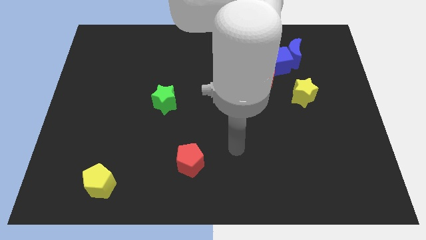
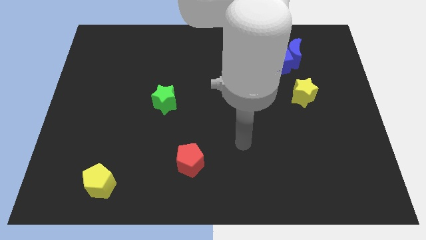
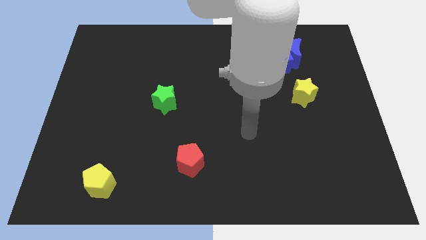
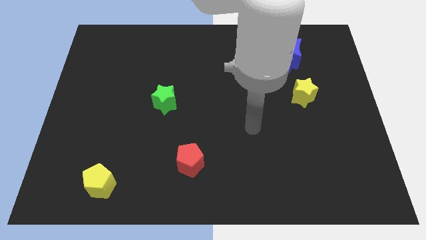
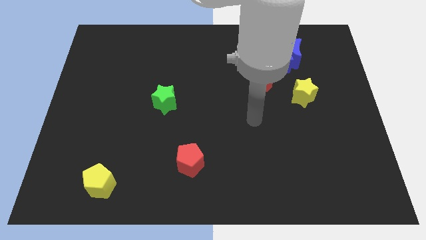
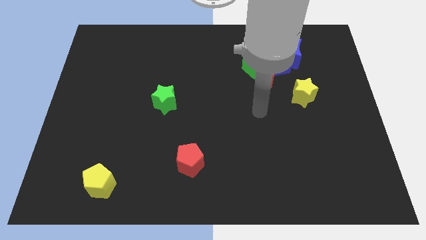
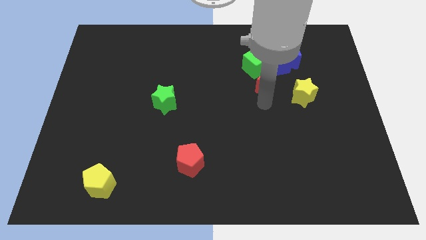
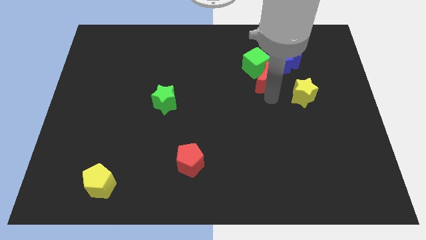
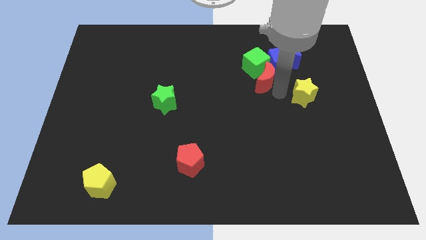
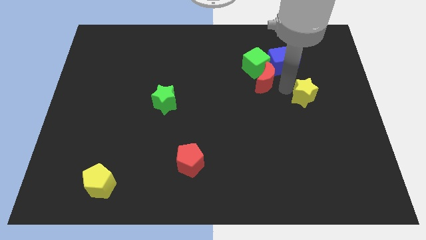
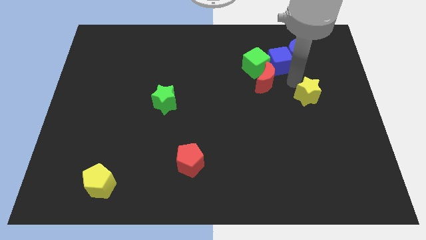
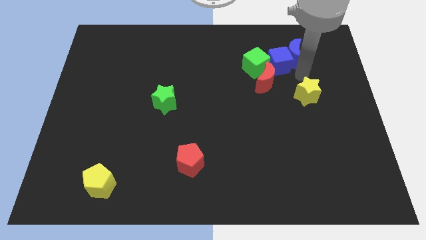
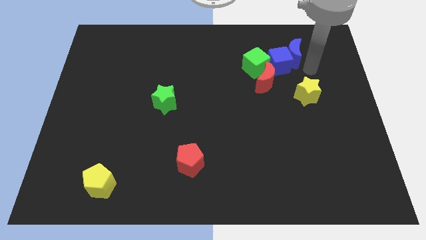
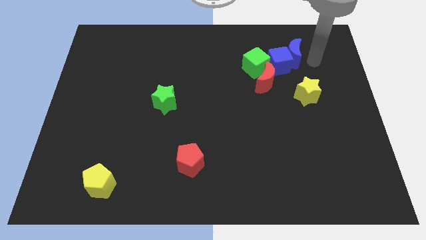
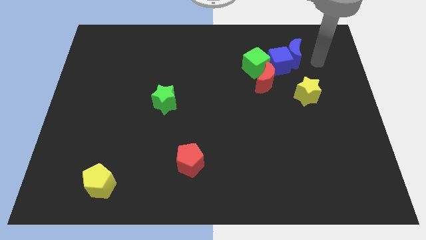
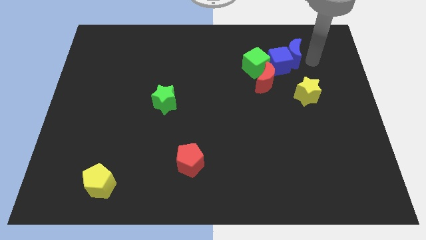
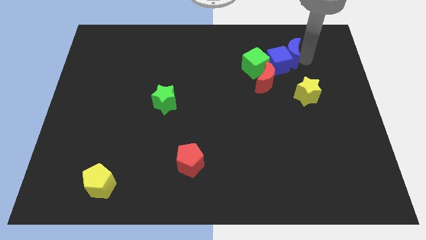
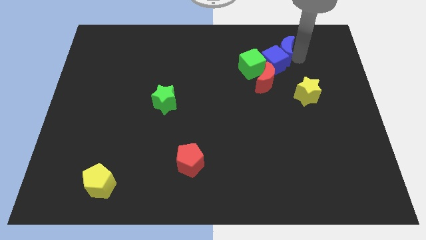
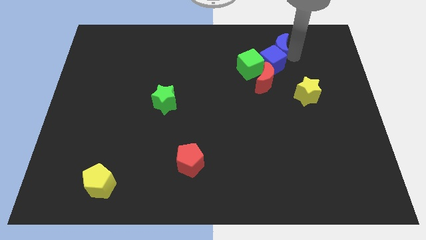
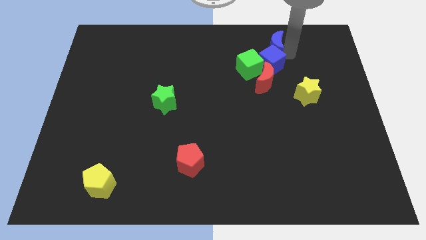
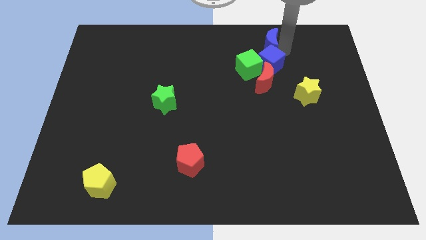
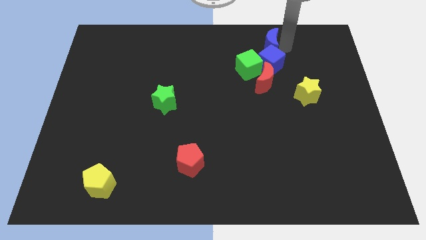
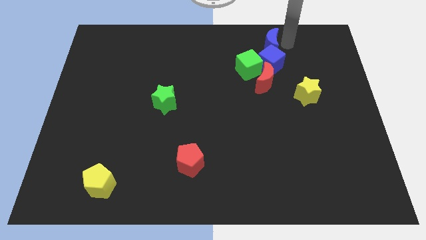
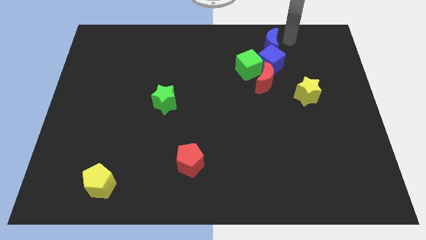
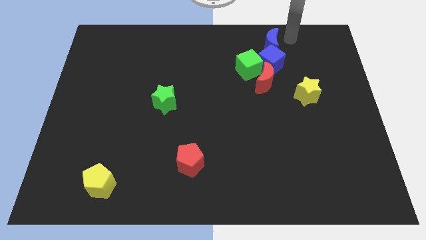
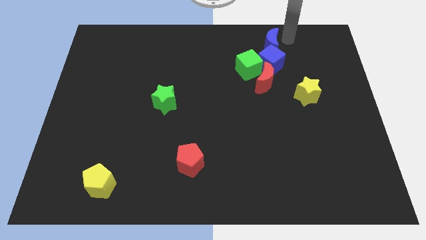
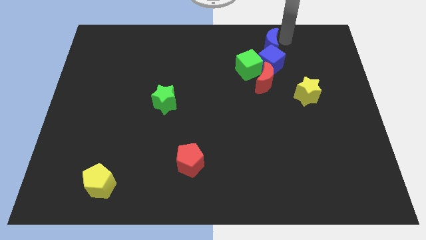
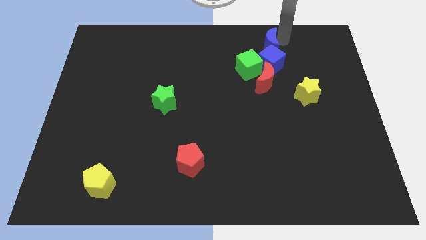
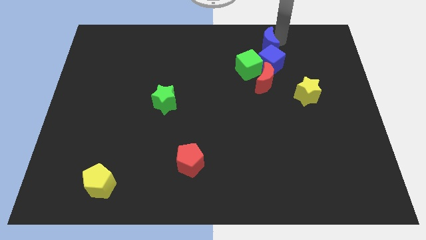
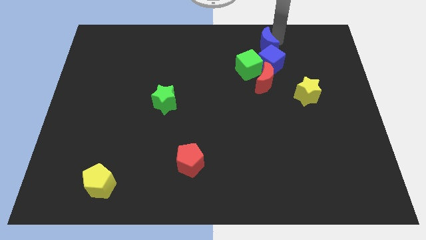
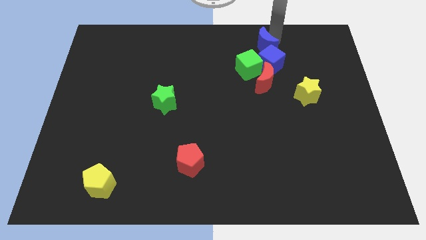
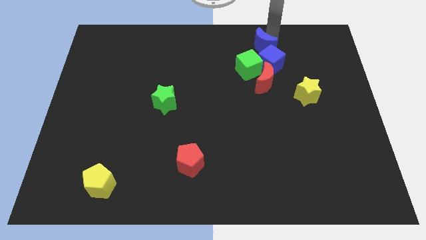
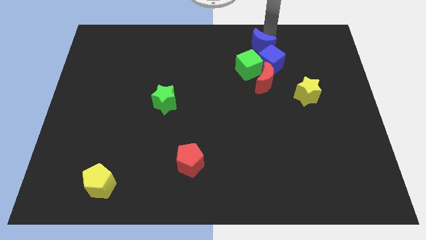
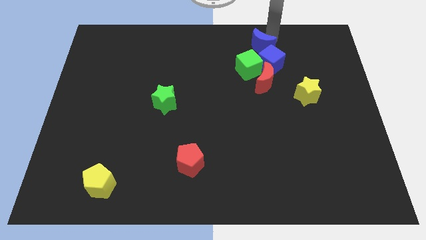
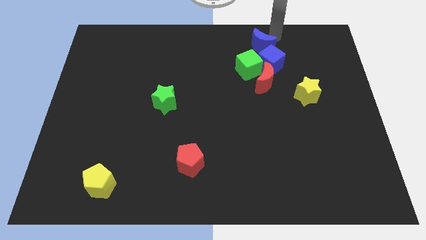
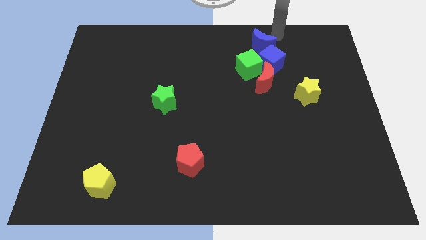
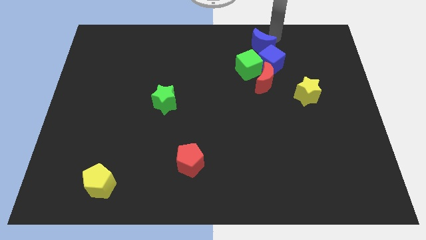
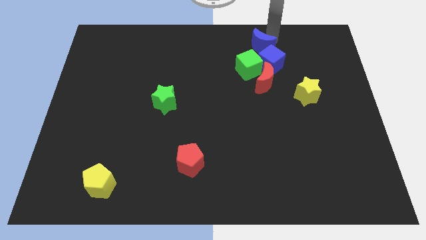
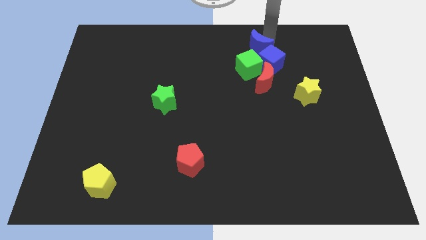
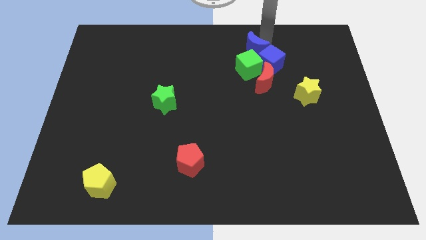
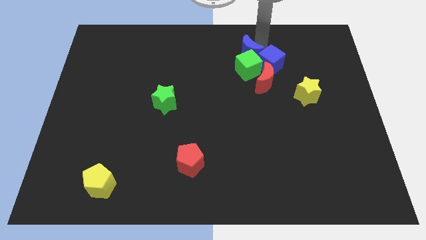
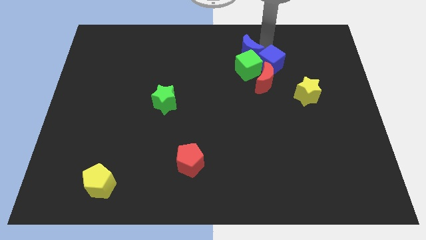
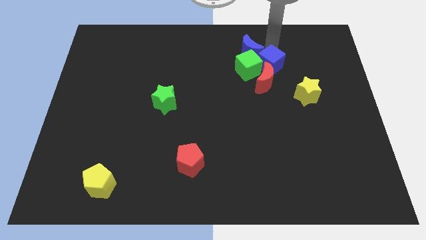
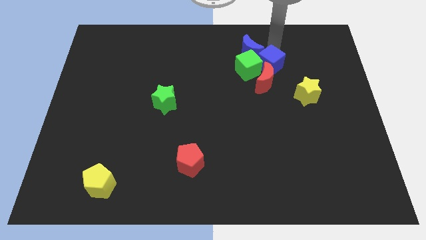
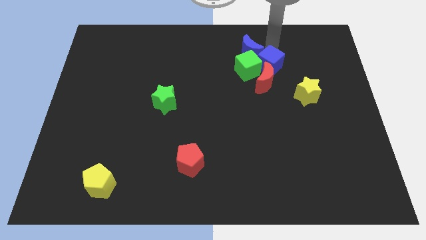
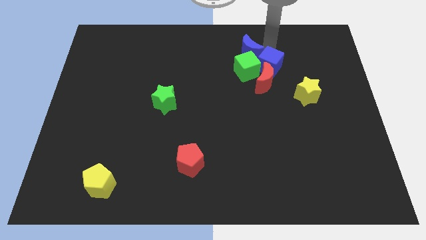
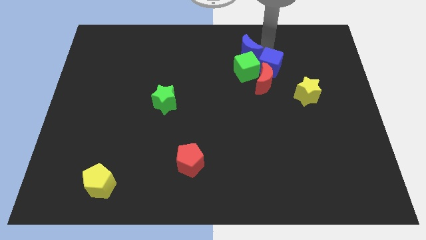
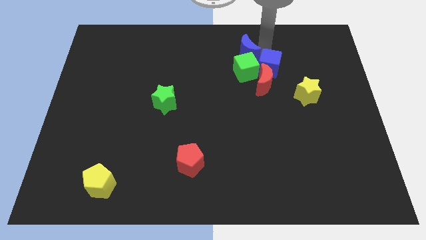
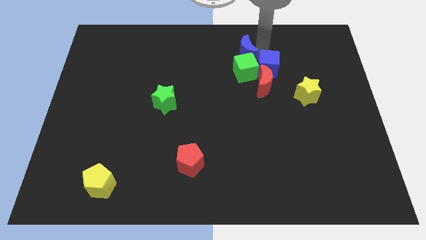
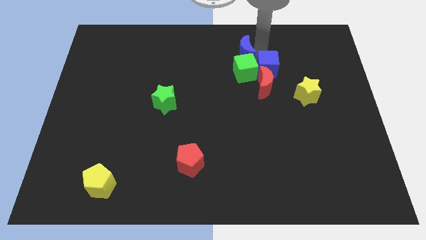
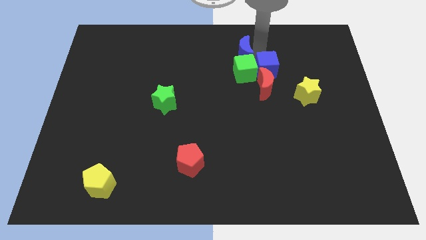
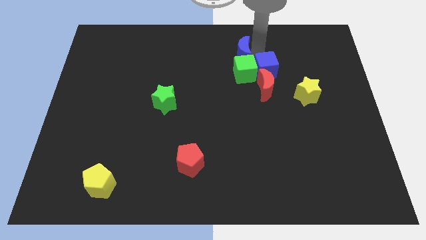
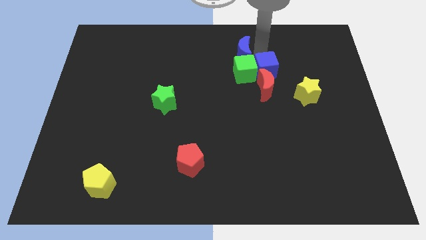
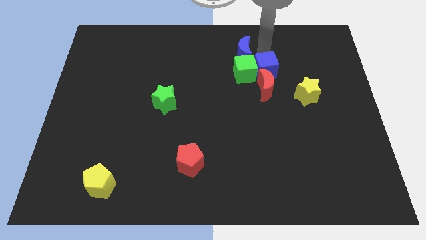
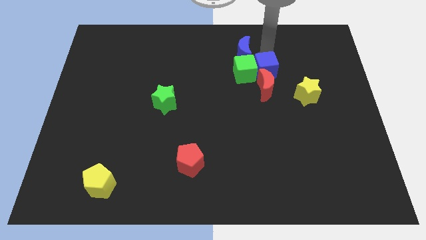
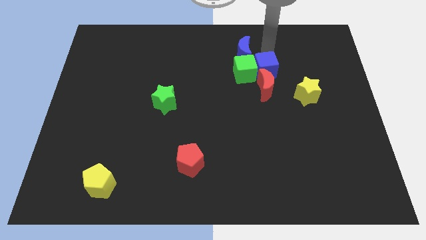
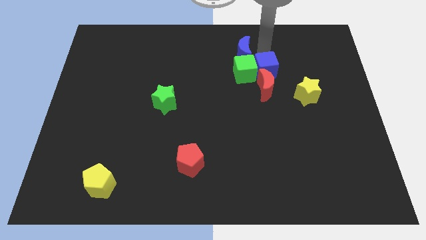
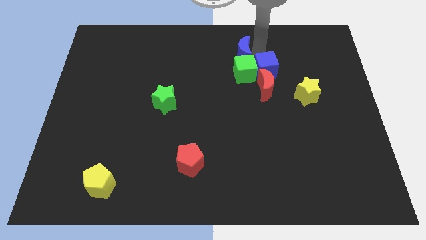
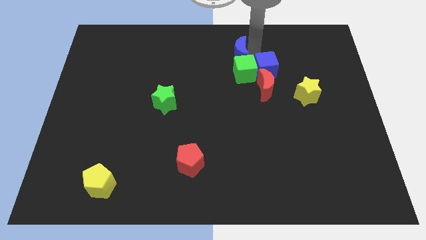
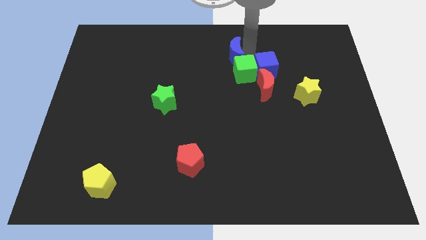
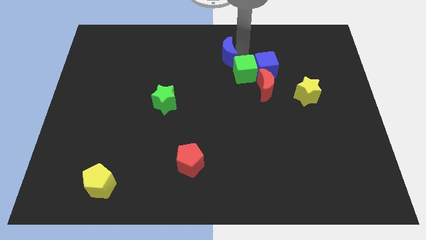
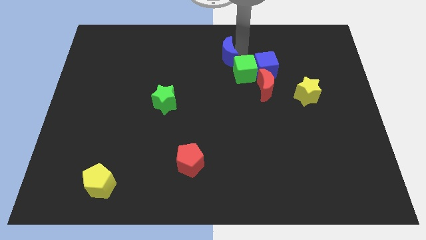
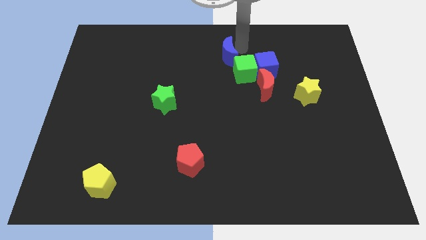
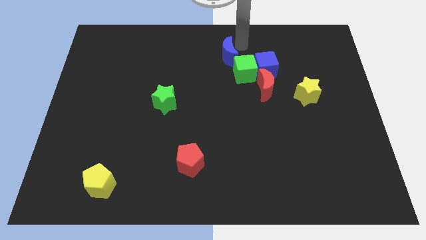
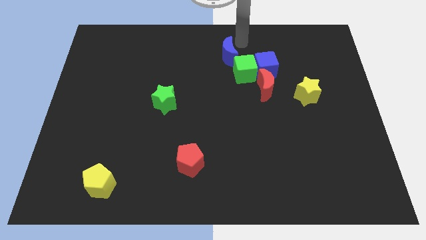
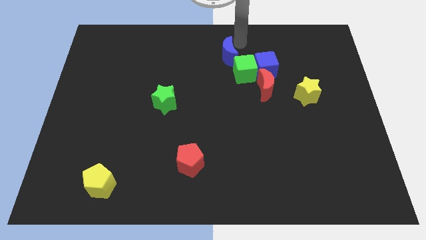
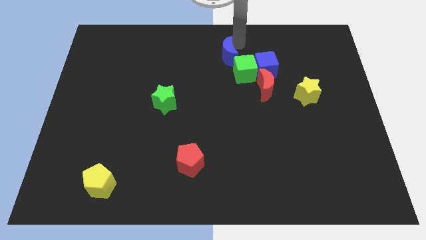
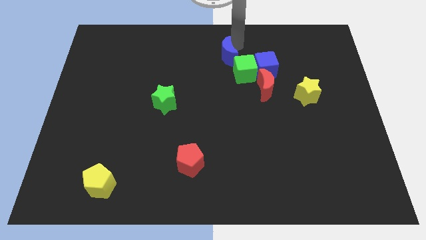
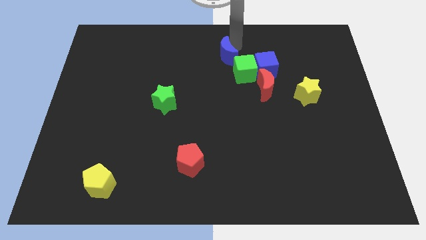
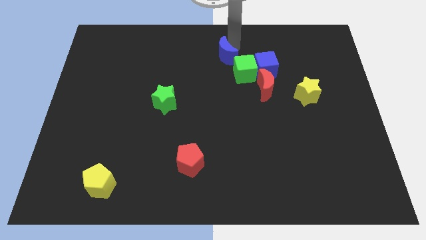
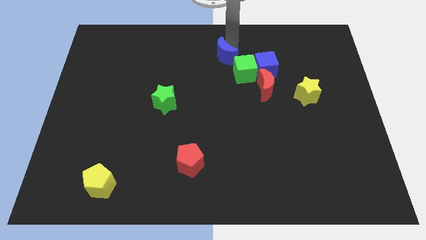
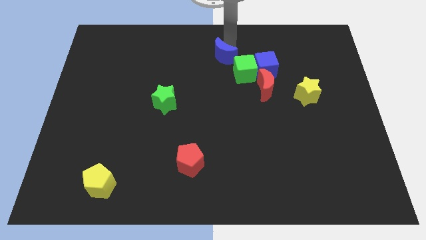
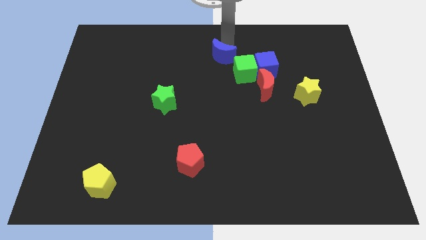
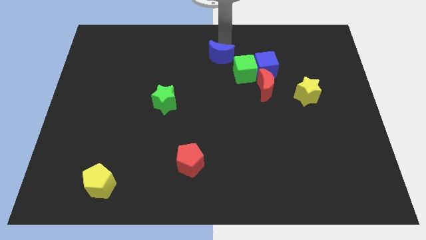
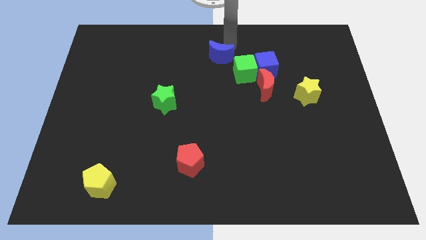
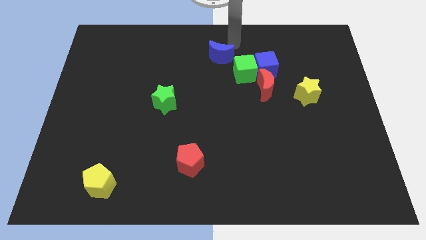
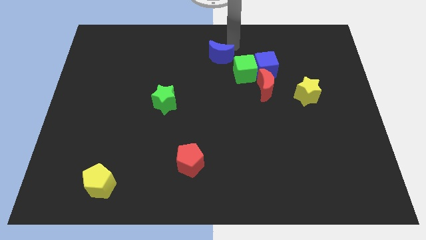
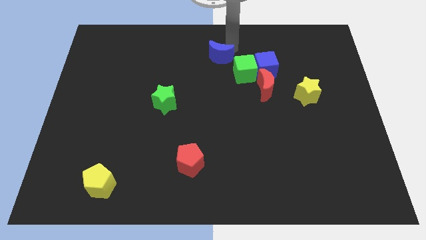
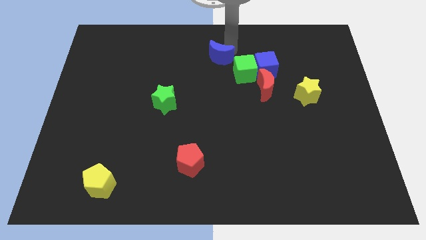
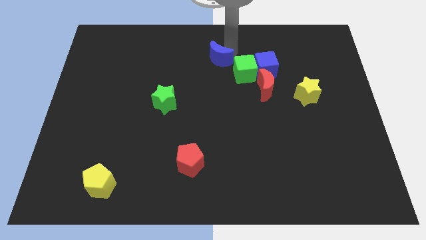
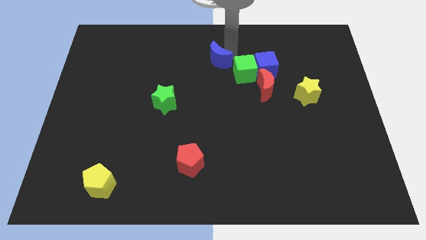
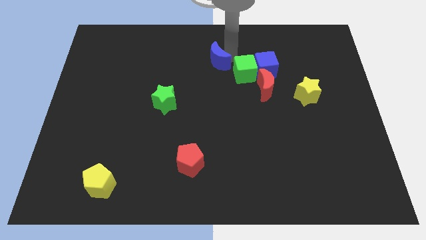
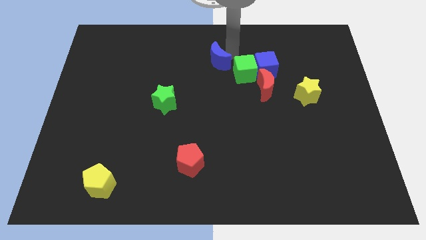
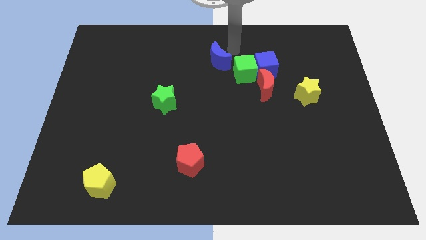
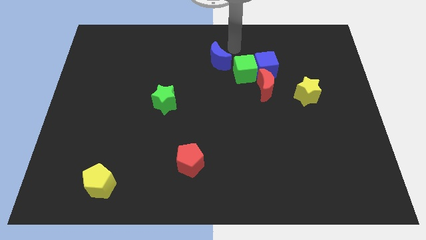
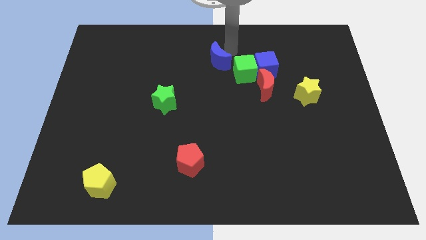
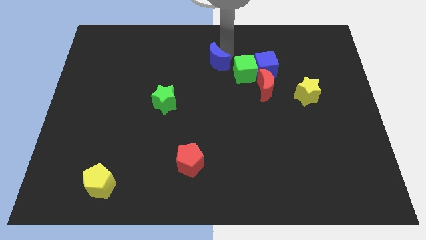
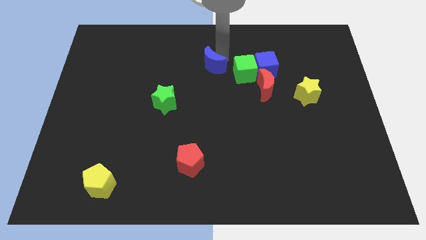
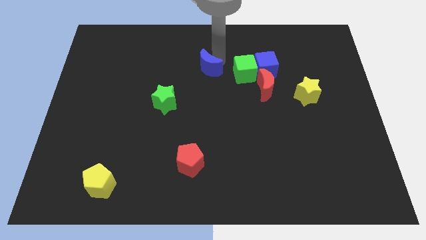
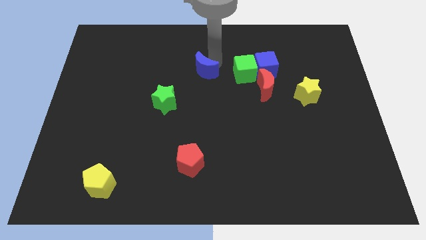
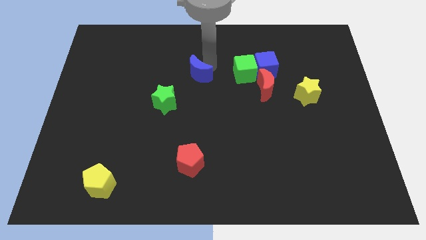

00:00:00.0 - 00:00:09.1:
push the blue moon diagonally up and to the right of the green star
